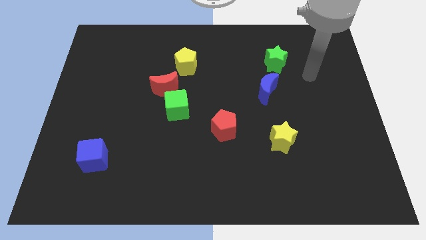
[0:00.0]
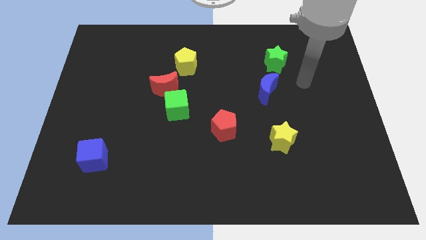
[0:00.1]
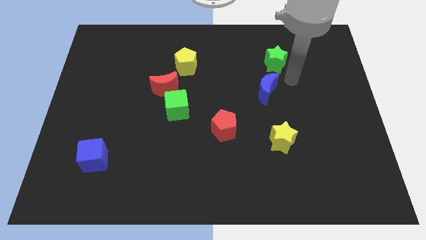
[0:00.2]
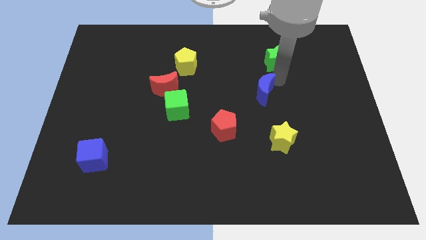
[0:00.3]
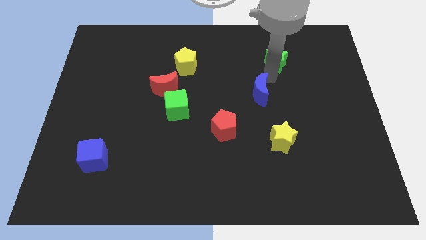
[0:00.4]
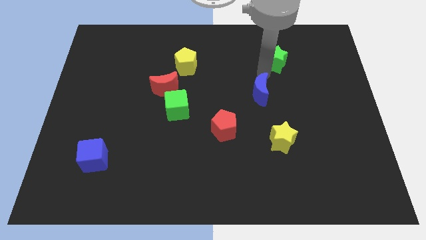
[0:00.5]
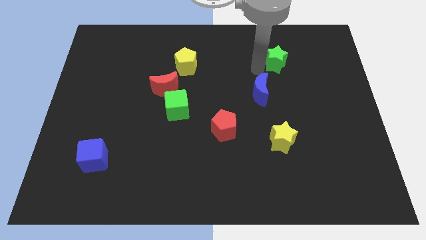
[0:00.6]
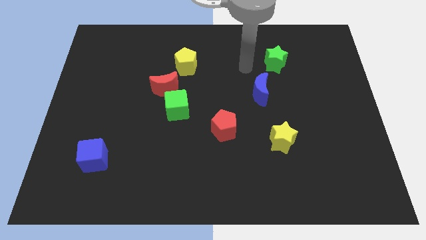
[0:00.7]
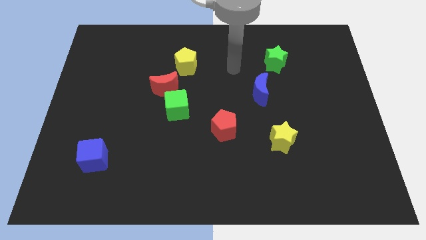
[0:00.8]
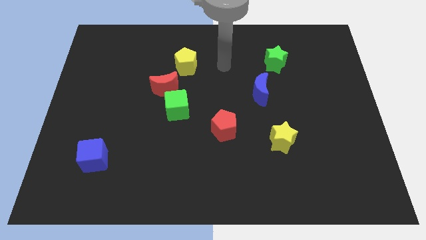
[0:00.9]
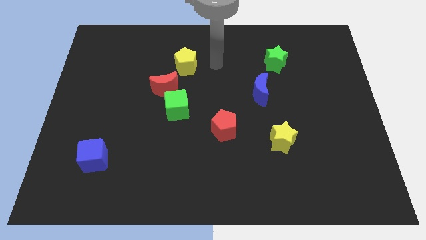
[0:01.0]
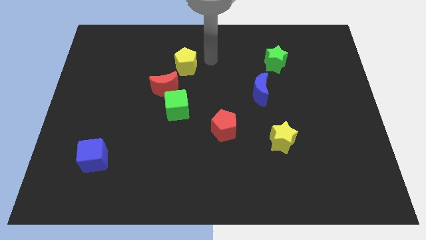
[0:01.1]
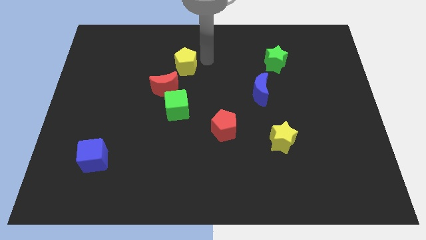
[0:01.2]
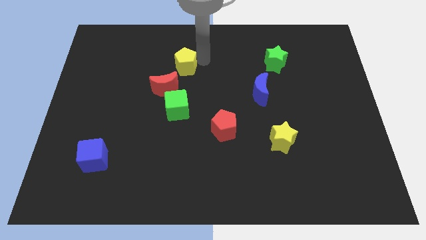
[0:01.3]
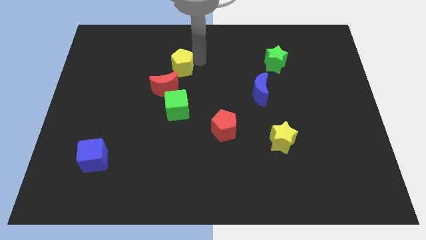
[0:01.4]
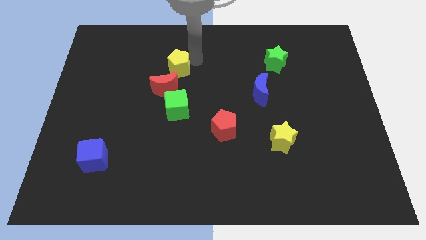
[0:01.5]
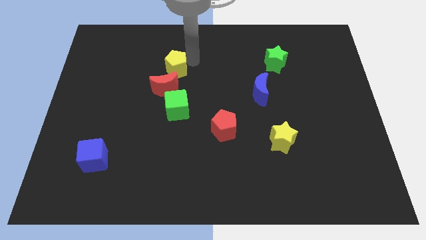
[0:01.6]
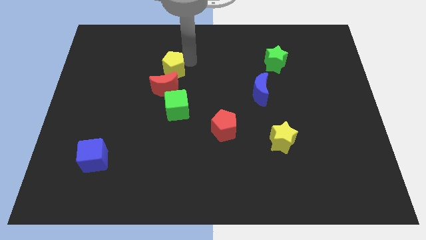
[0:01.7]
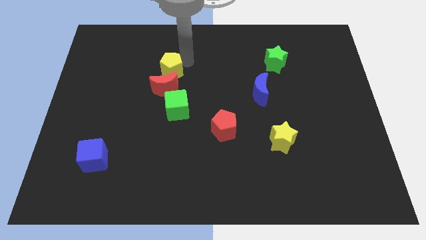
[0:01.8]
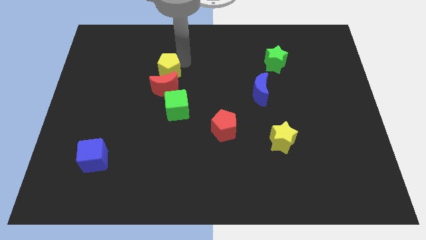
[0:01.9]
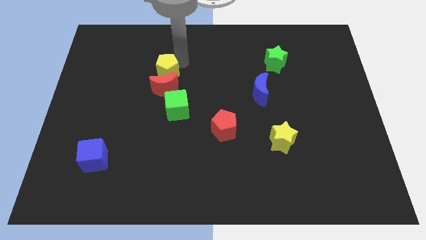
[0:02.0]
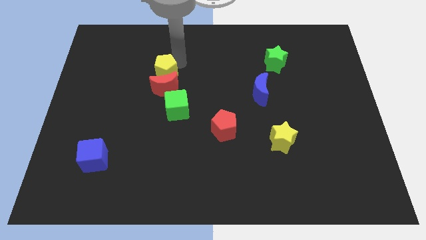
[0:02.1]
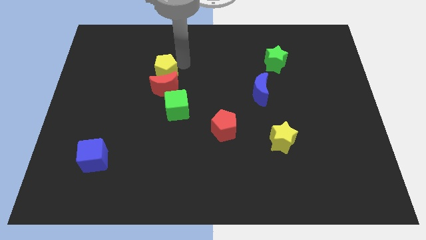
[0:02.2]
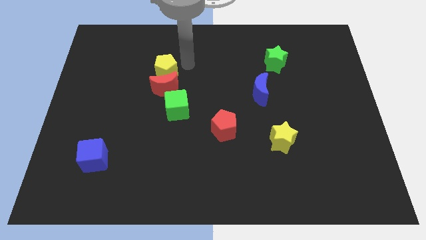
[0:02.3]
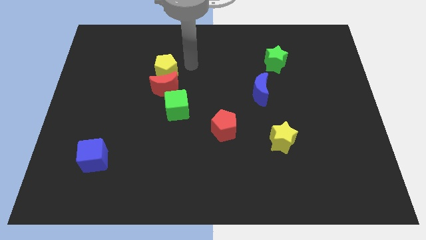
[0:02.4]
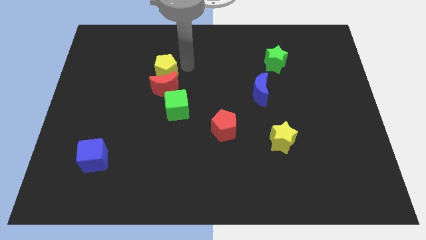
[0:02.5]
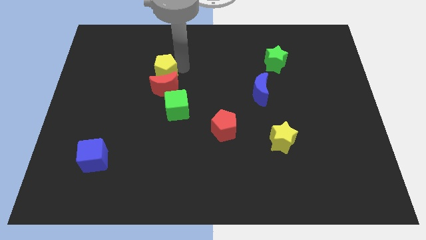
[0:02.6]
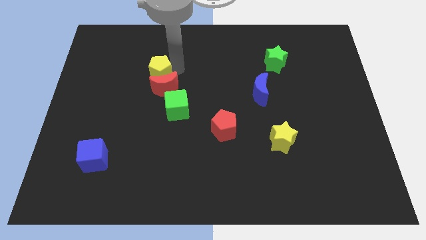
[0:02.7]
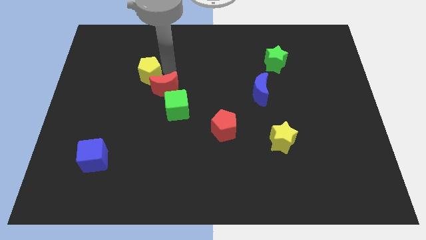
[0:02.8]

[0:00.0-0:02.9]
move the yellow pentagon a little bit down and to the left

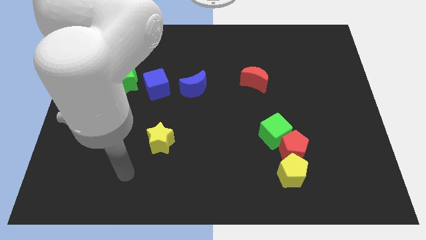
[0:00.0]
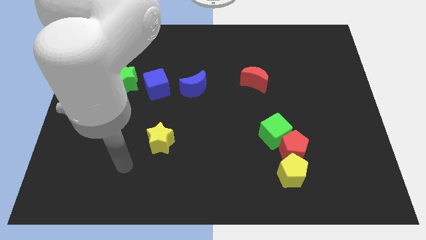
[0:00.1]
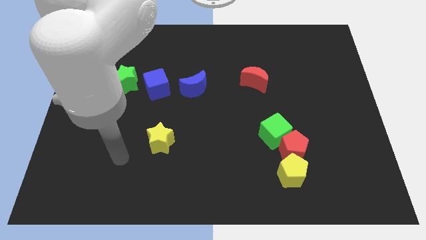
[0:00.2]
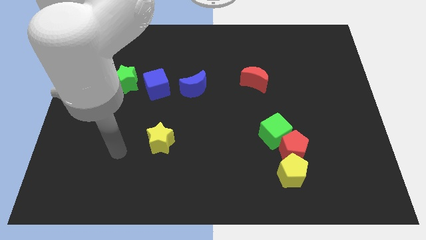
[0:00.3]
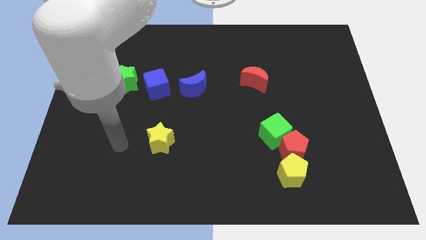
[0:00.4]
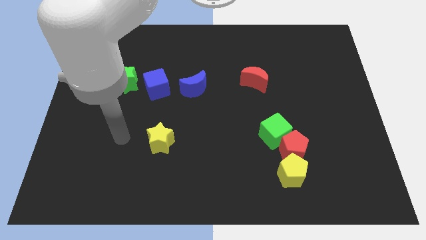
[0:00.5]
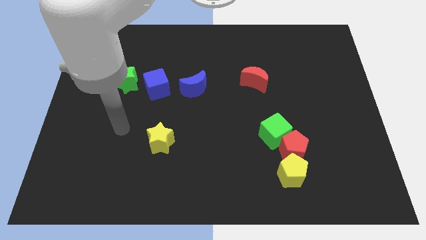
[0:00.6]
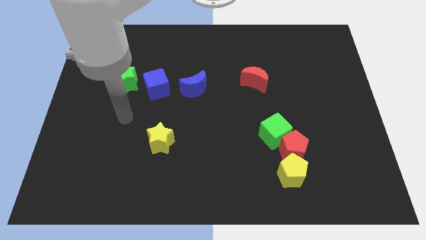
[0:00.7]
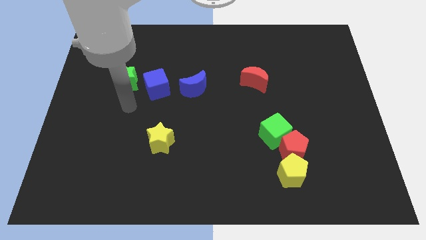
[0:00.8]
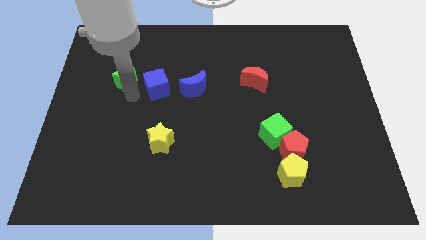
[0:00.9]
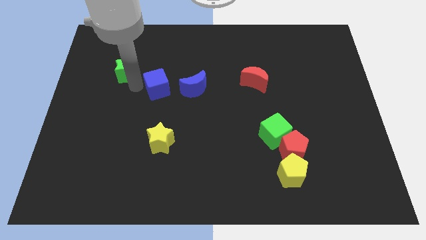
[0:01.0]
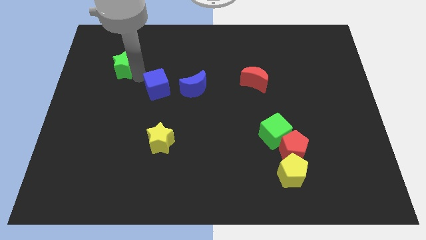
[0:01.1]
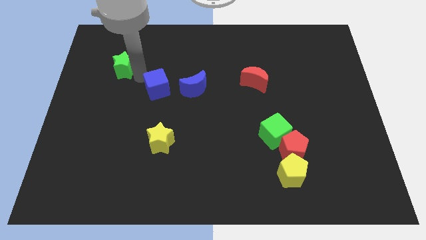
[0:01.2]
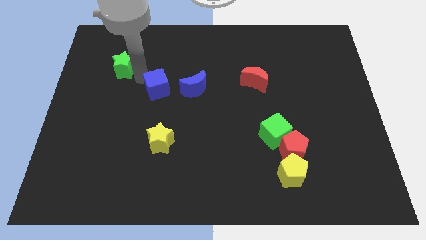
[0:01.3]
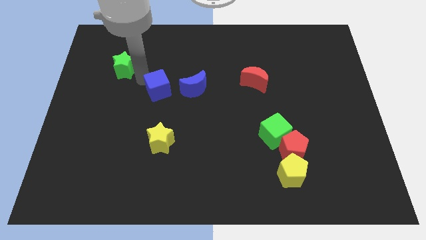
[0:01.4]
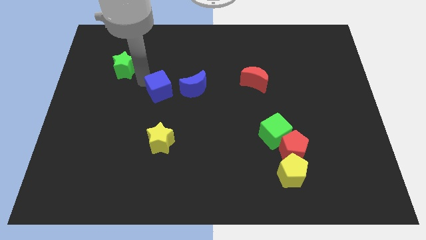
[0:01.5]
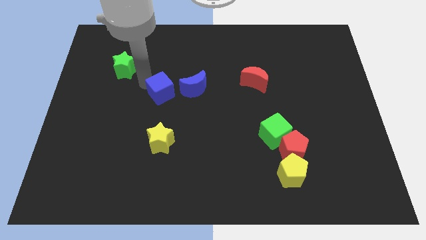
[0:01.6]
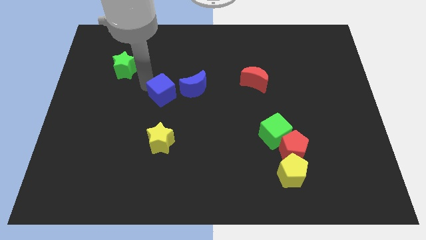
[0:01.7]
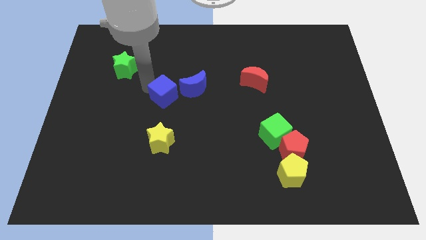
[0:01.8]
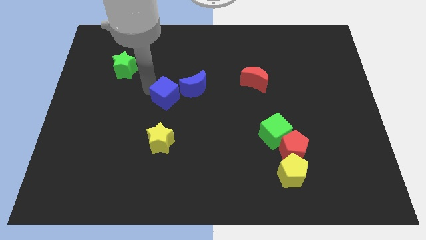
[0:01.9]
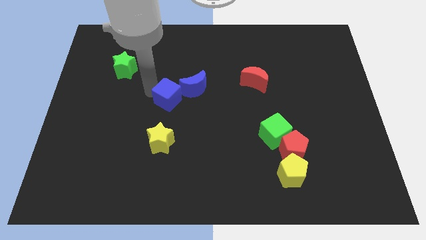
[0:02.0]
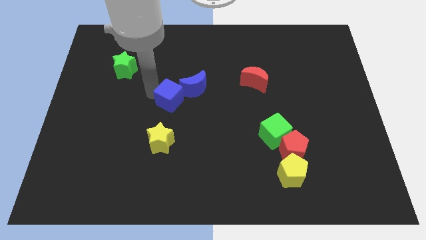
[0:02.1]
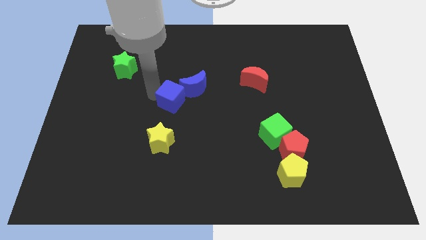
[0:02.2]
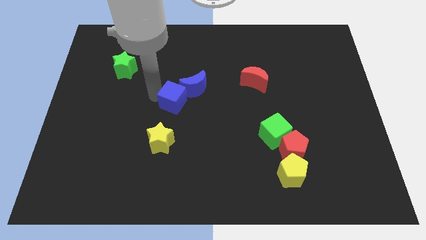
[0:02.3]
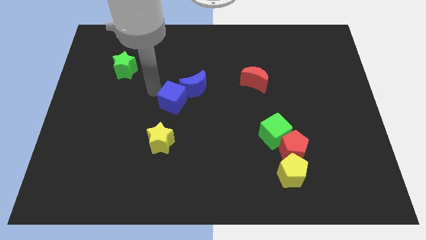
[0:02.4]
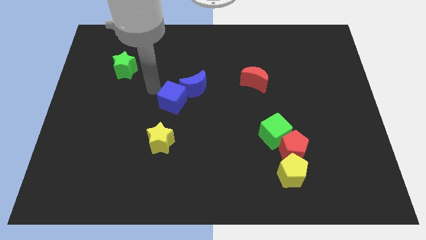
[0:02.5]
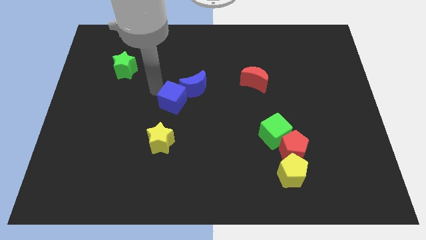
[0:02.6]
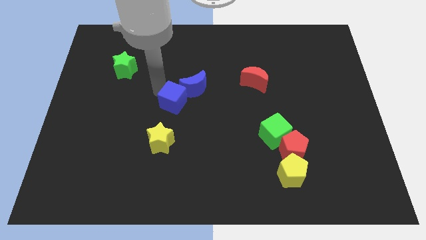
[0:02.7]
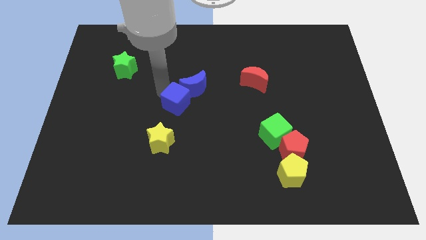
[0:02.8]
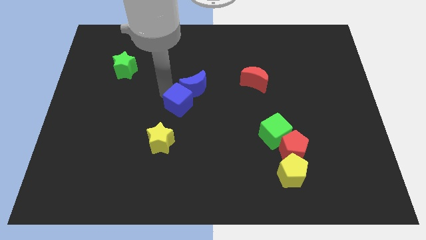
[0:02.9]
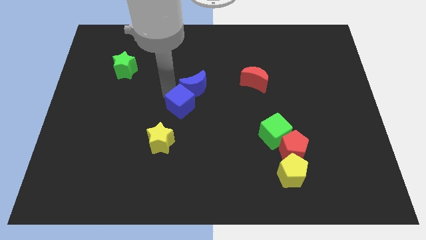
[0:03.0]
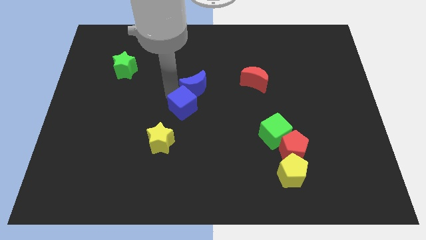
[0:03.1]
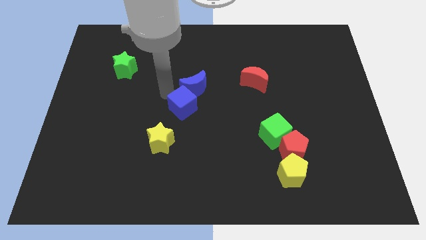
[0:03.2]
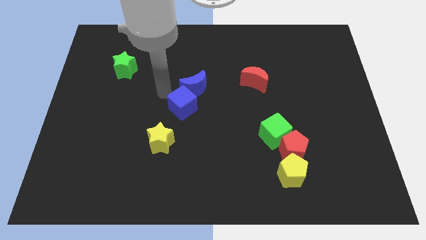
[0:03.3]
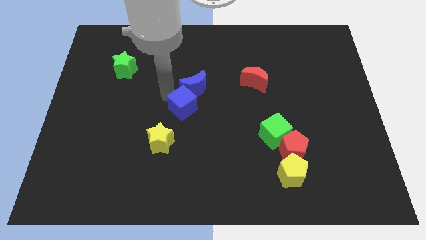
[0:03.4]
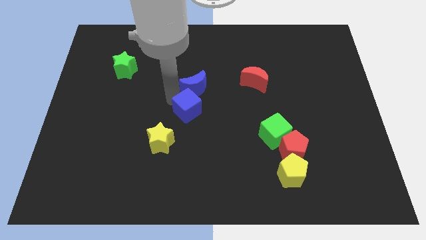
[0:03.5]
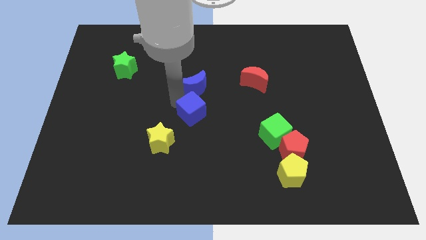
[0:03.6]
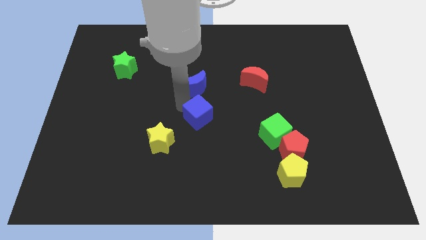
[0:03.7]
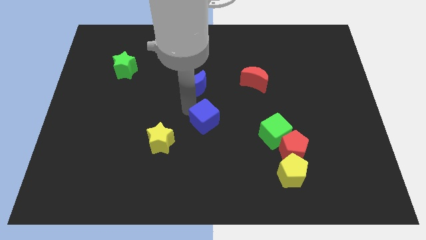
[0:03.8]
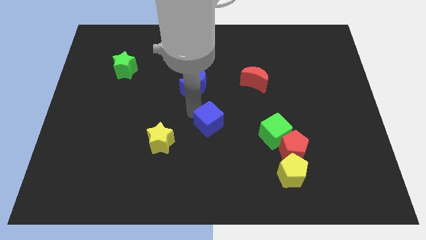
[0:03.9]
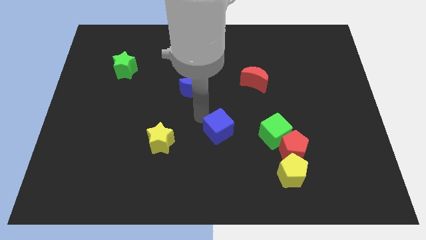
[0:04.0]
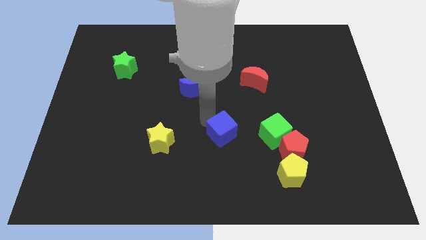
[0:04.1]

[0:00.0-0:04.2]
slide the blue cube downwards and right

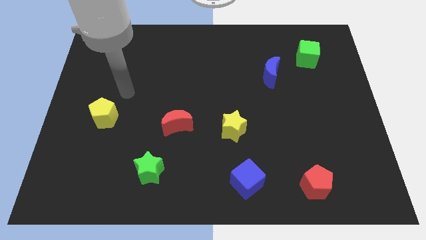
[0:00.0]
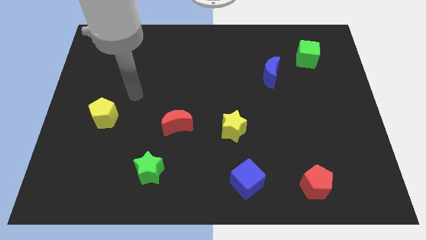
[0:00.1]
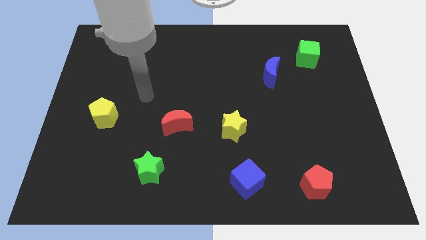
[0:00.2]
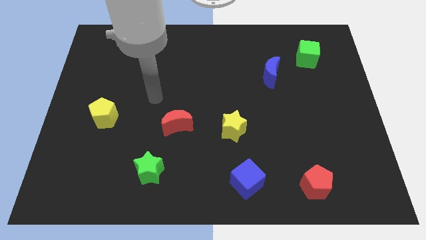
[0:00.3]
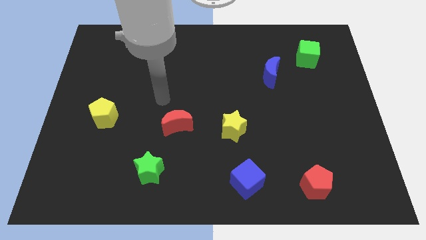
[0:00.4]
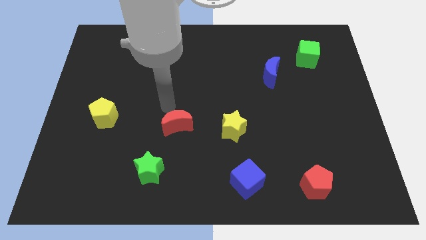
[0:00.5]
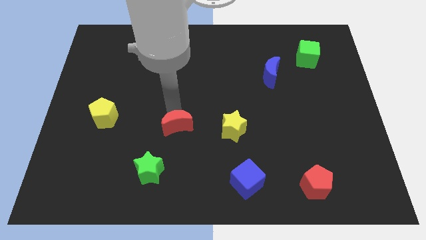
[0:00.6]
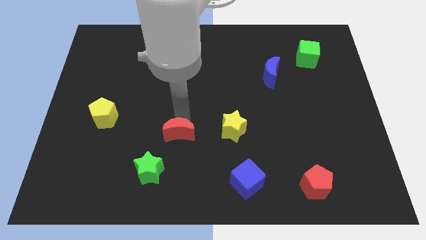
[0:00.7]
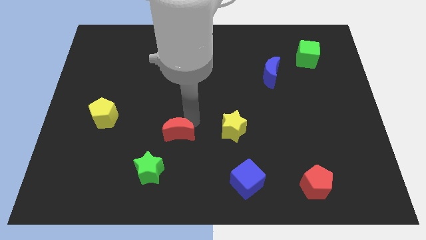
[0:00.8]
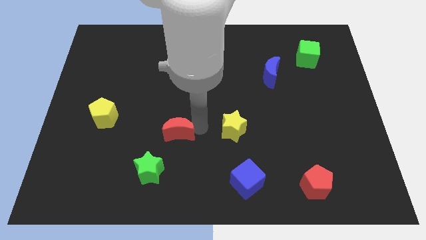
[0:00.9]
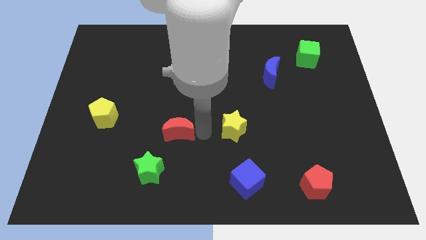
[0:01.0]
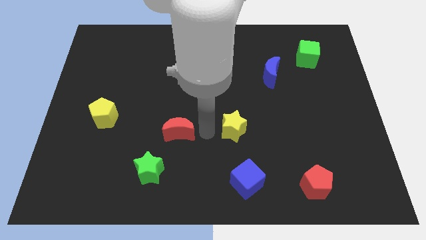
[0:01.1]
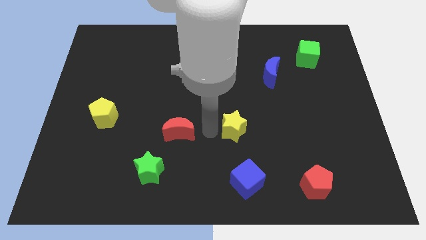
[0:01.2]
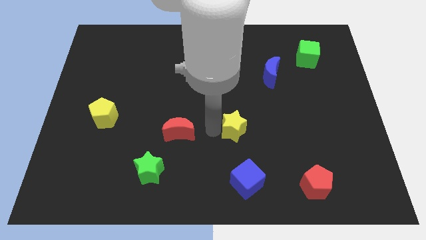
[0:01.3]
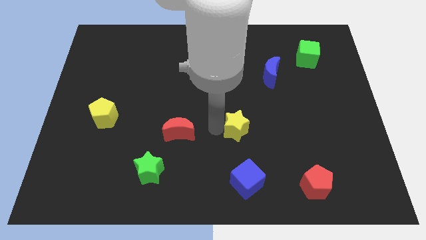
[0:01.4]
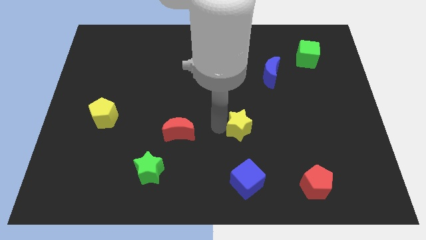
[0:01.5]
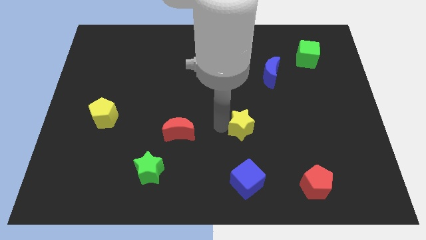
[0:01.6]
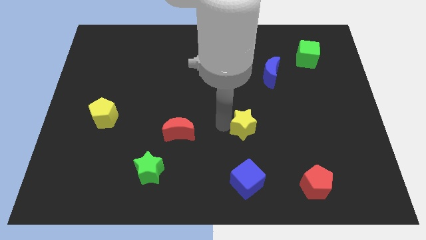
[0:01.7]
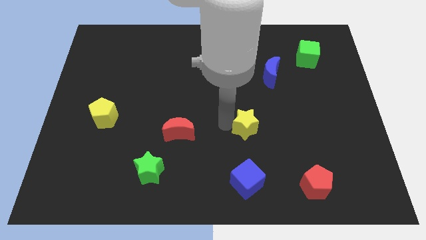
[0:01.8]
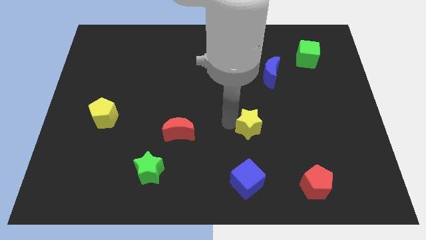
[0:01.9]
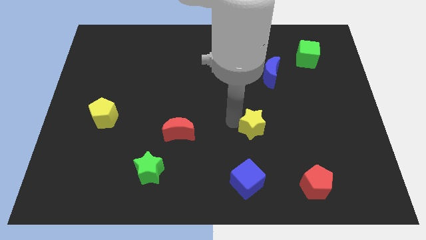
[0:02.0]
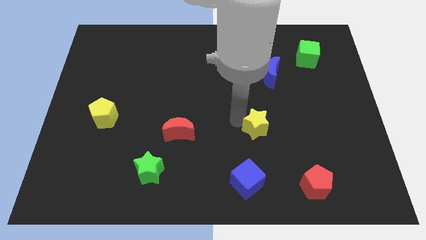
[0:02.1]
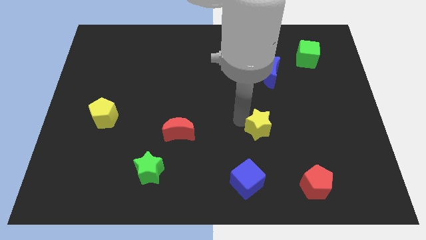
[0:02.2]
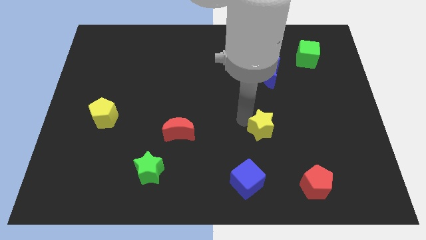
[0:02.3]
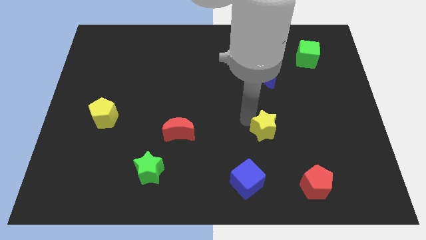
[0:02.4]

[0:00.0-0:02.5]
move the yellow star right a little
